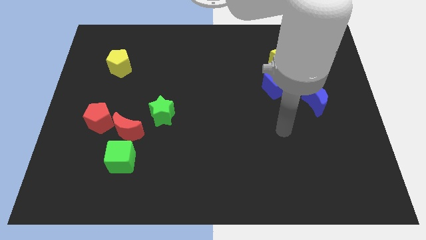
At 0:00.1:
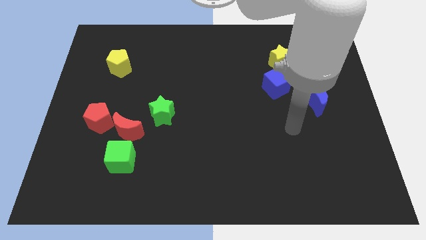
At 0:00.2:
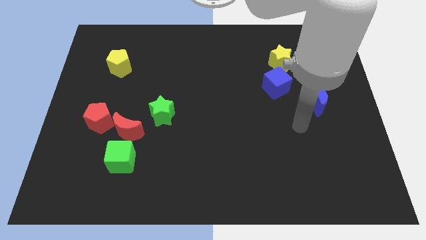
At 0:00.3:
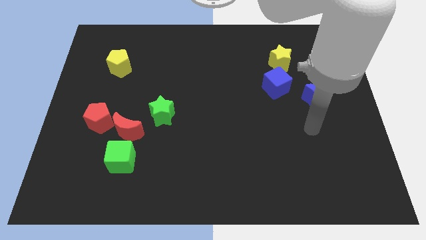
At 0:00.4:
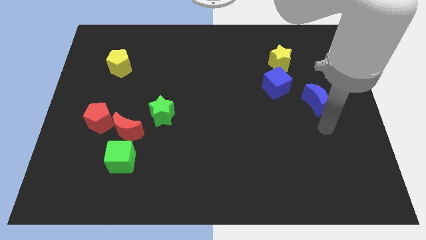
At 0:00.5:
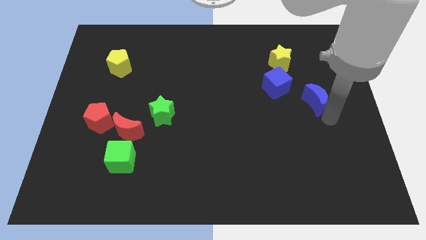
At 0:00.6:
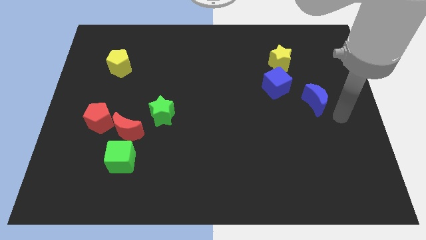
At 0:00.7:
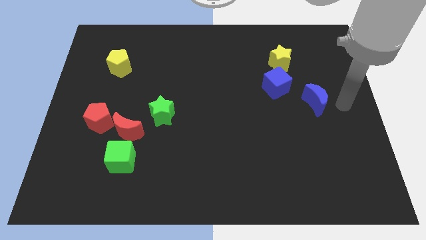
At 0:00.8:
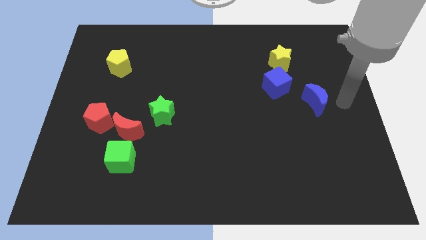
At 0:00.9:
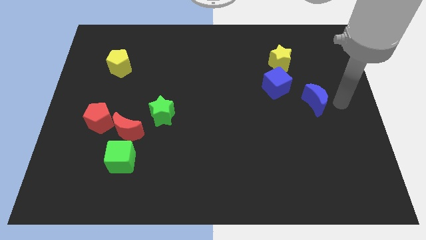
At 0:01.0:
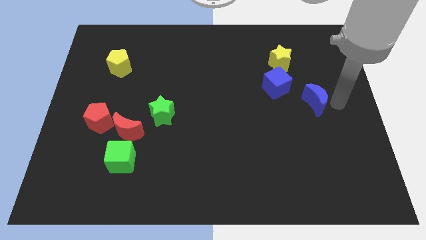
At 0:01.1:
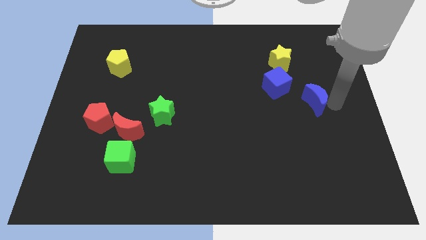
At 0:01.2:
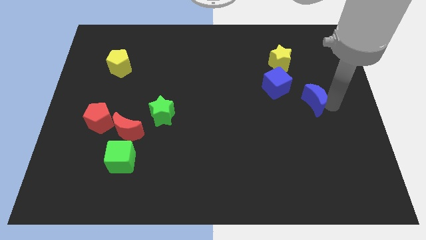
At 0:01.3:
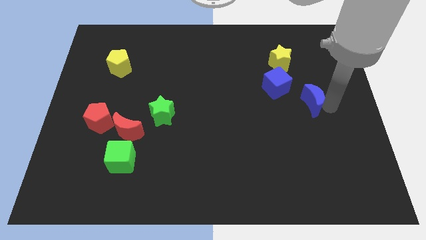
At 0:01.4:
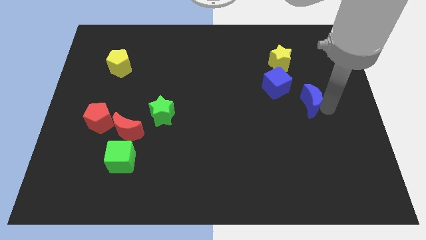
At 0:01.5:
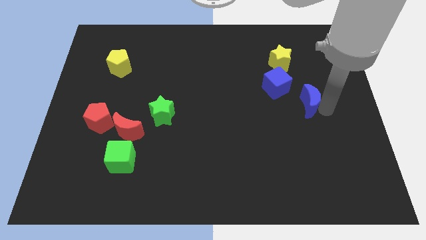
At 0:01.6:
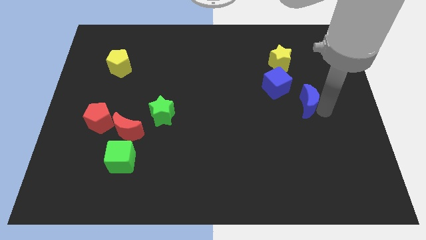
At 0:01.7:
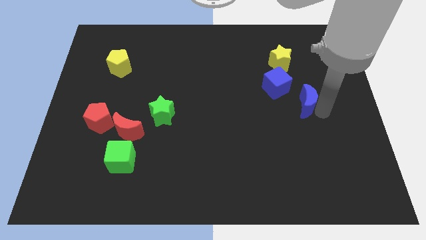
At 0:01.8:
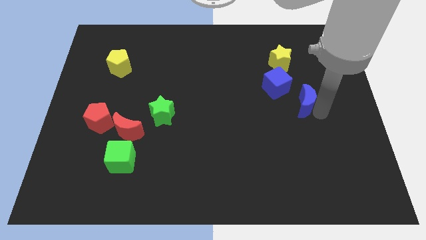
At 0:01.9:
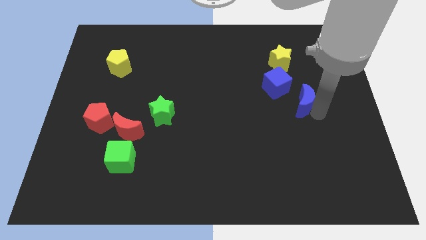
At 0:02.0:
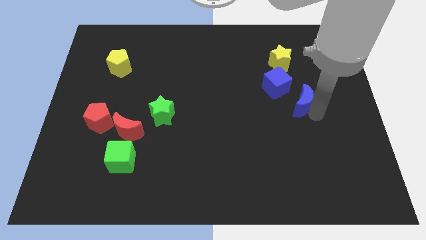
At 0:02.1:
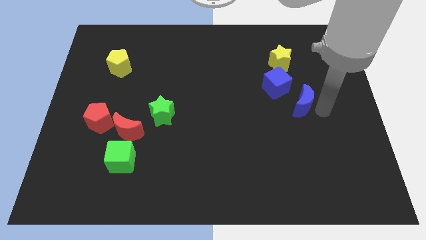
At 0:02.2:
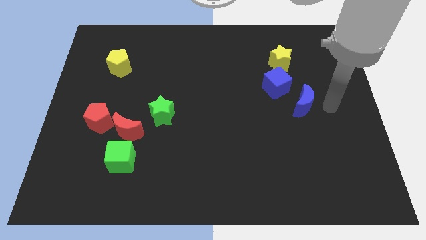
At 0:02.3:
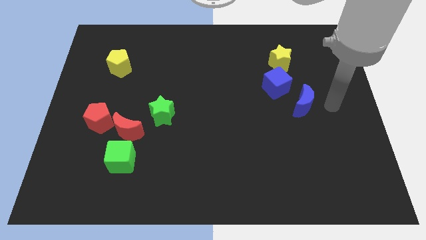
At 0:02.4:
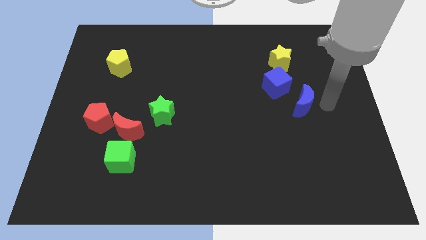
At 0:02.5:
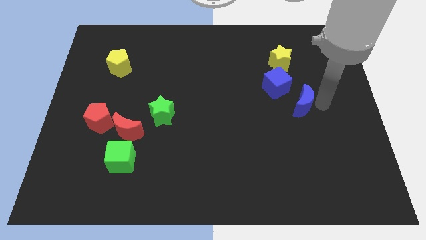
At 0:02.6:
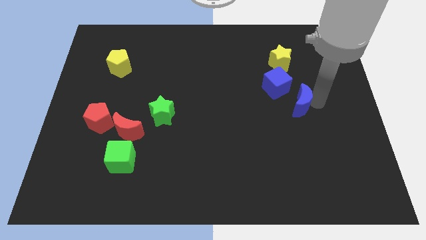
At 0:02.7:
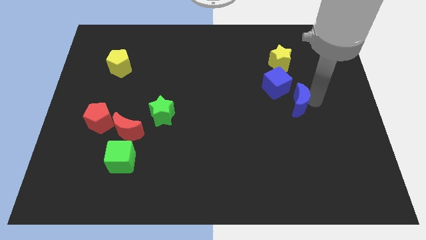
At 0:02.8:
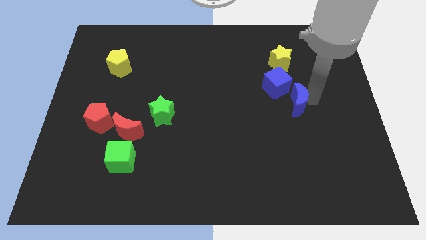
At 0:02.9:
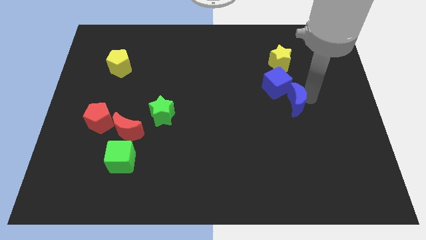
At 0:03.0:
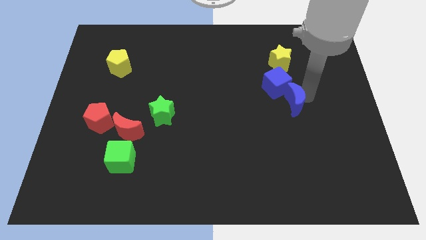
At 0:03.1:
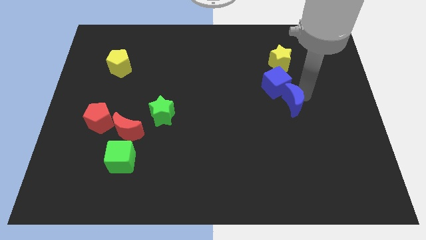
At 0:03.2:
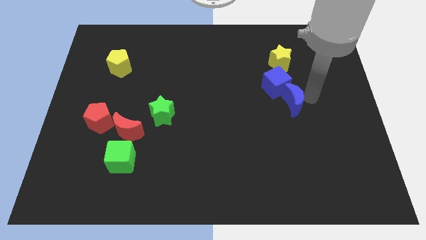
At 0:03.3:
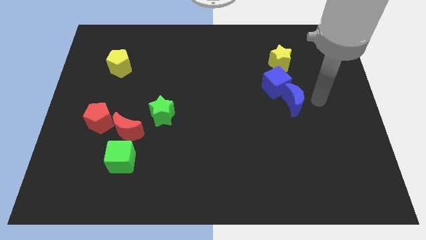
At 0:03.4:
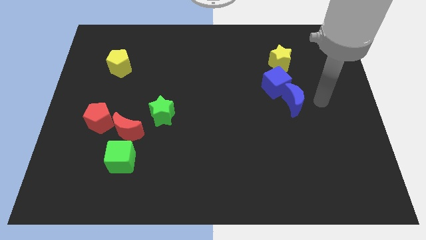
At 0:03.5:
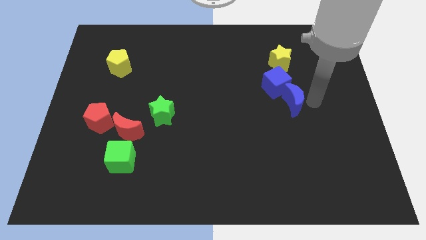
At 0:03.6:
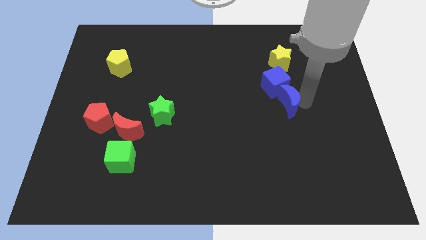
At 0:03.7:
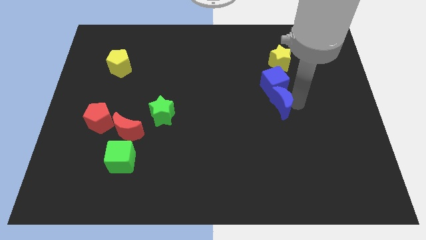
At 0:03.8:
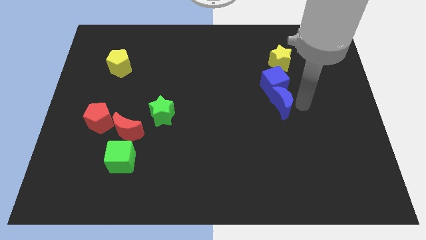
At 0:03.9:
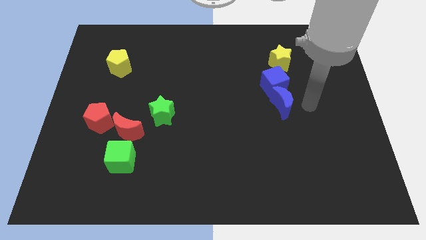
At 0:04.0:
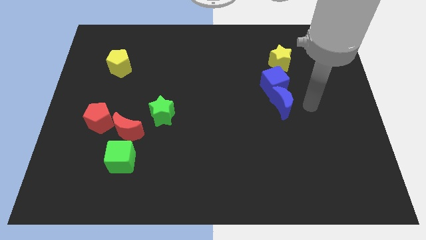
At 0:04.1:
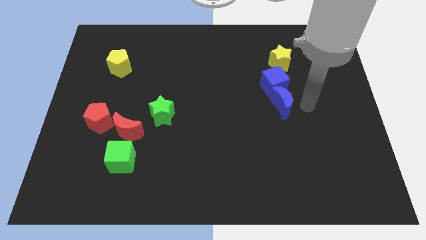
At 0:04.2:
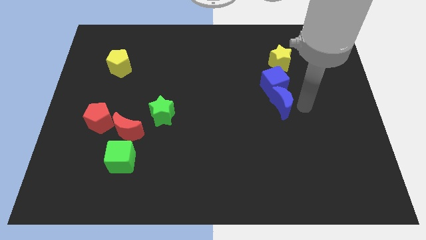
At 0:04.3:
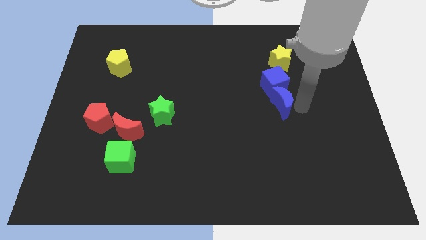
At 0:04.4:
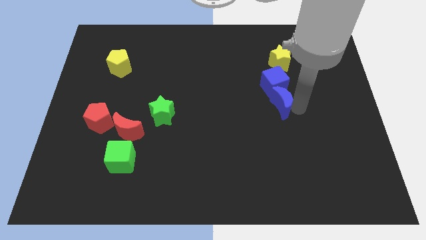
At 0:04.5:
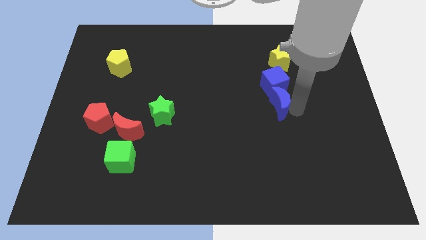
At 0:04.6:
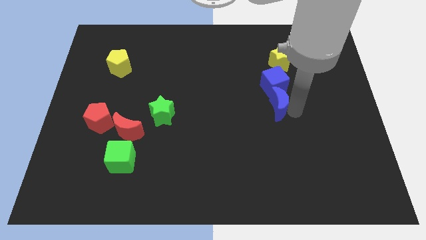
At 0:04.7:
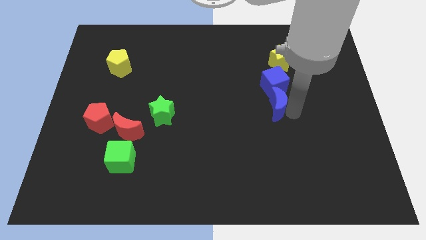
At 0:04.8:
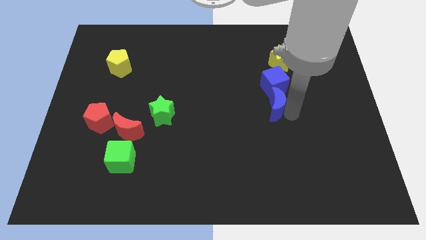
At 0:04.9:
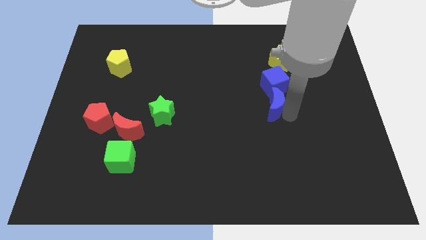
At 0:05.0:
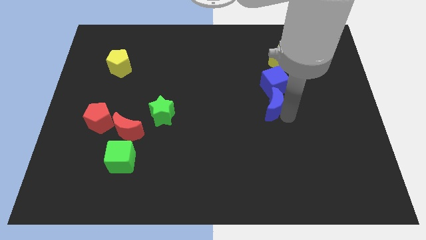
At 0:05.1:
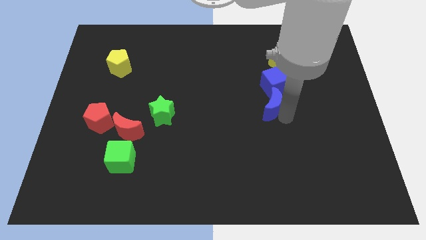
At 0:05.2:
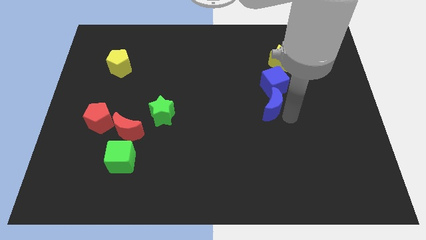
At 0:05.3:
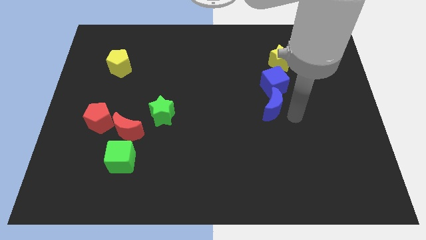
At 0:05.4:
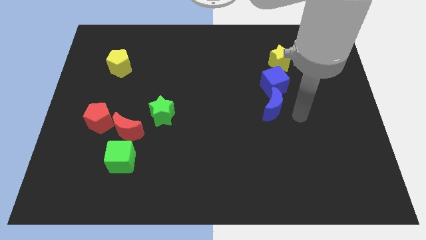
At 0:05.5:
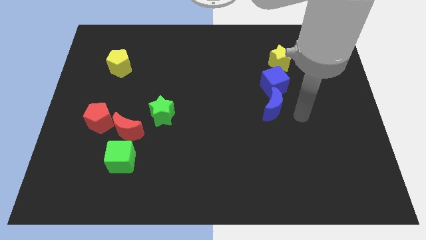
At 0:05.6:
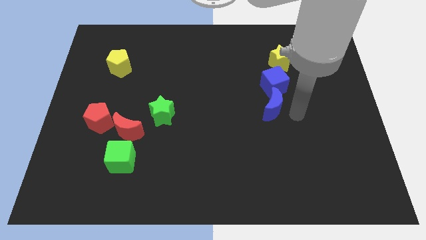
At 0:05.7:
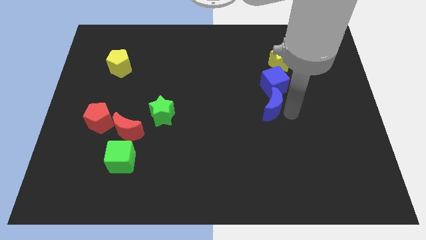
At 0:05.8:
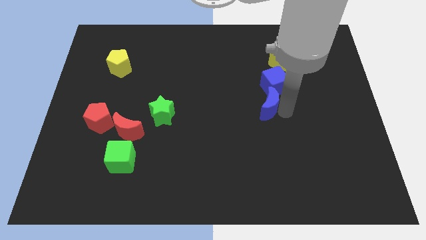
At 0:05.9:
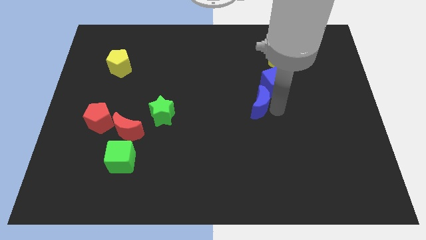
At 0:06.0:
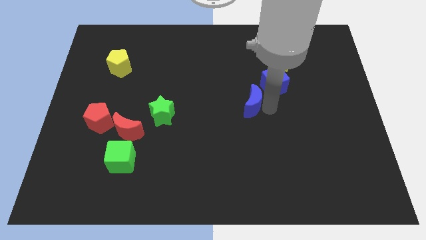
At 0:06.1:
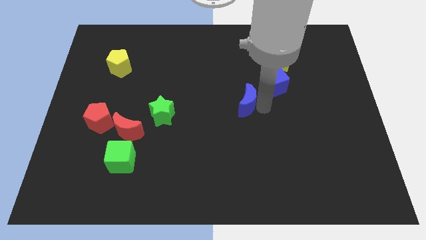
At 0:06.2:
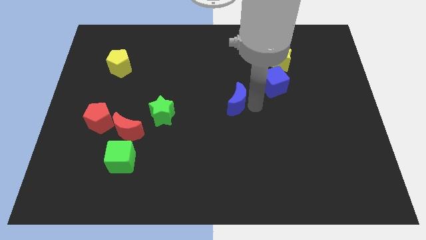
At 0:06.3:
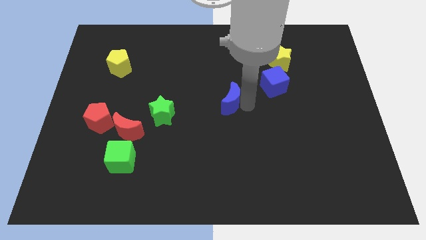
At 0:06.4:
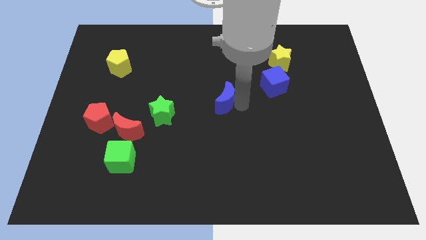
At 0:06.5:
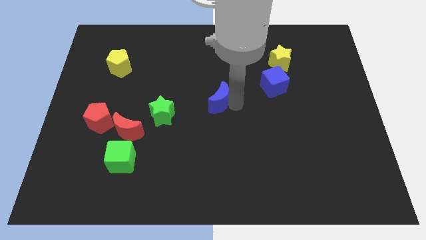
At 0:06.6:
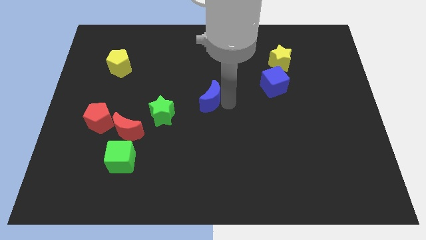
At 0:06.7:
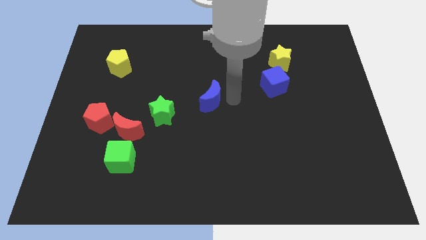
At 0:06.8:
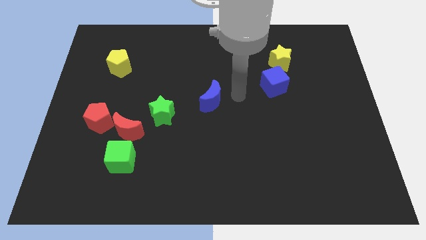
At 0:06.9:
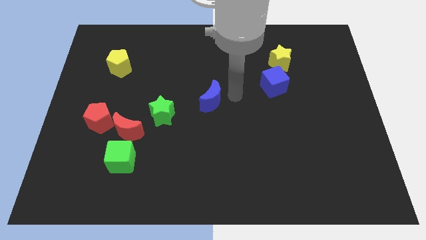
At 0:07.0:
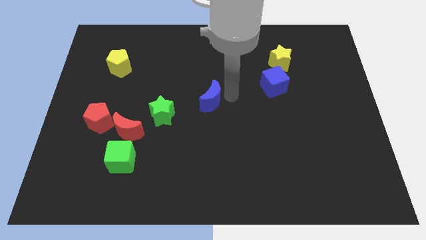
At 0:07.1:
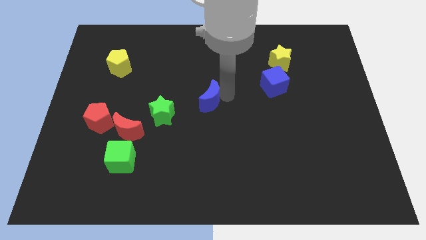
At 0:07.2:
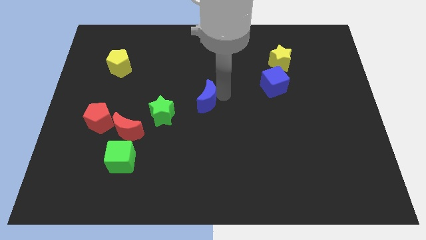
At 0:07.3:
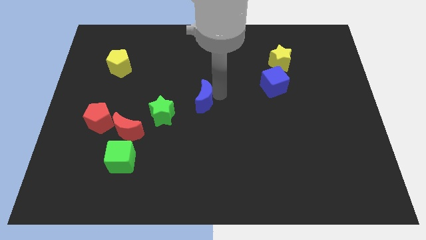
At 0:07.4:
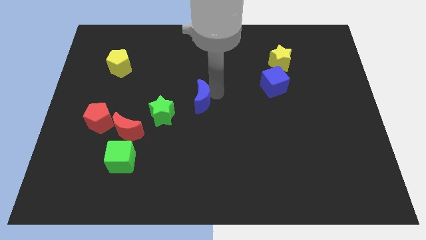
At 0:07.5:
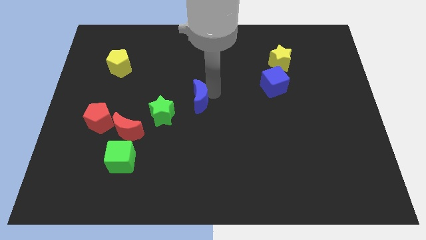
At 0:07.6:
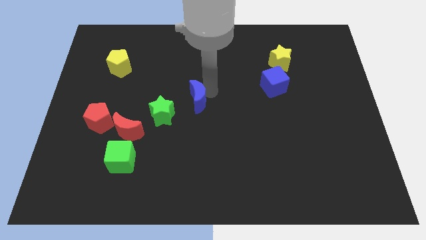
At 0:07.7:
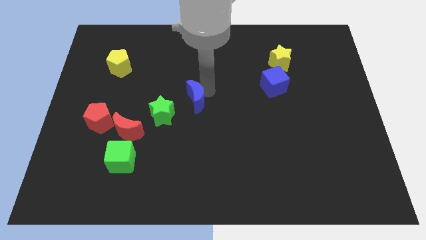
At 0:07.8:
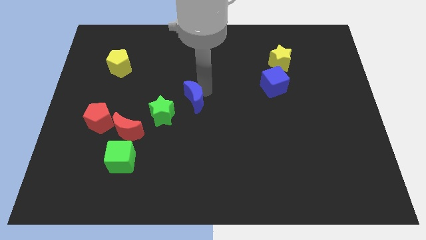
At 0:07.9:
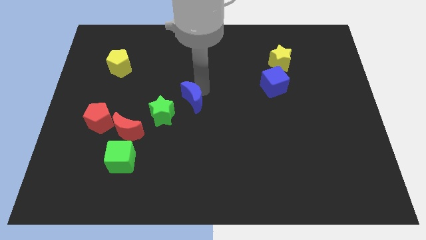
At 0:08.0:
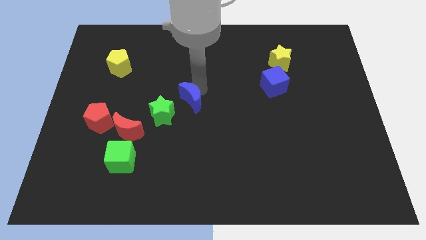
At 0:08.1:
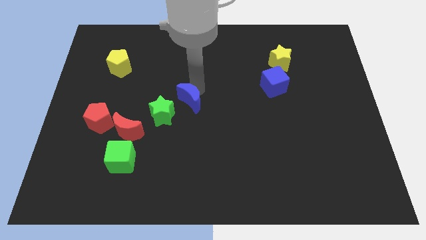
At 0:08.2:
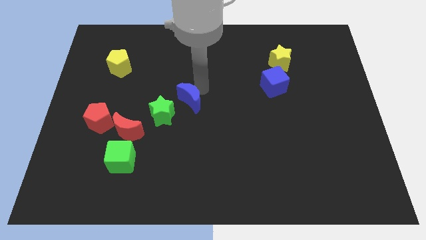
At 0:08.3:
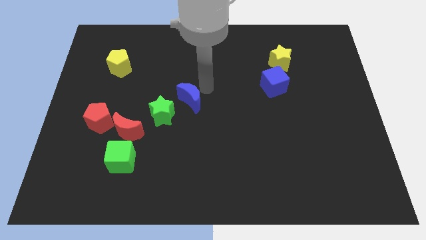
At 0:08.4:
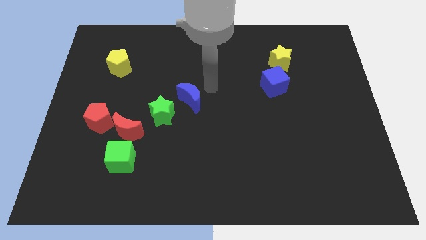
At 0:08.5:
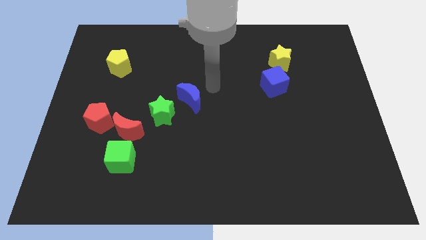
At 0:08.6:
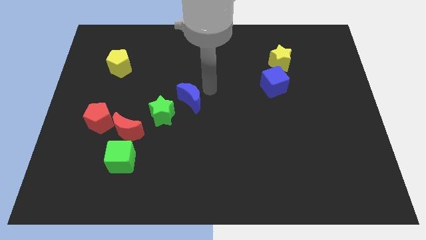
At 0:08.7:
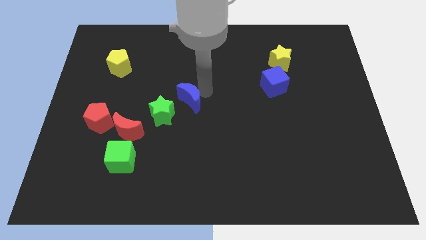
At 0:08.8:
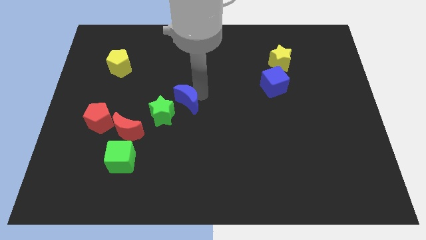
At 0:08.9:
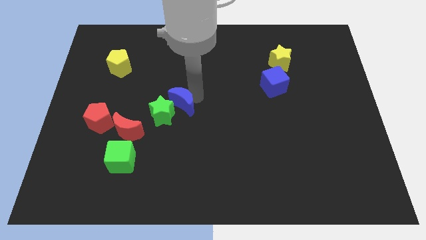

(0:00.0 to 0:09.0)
slide the blue moon close to the green star
